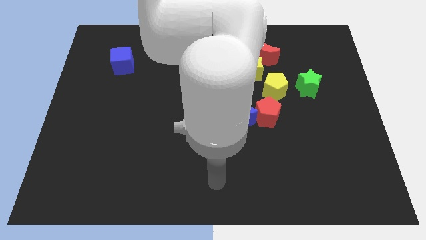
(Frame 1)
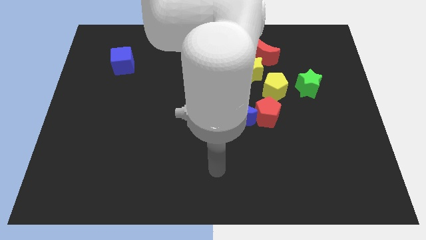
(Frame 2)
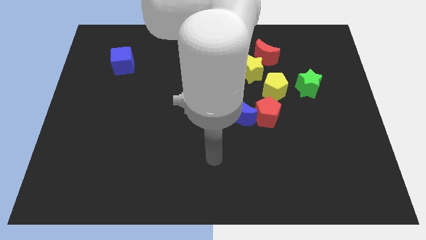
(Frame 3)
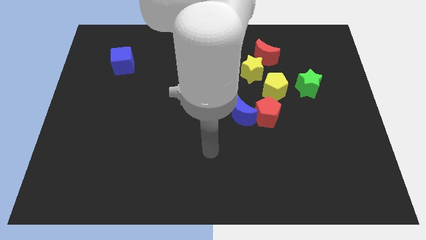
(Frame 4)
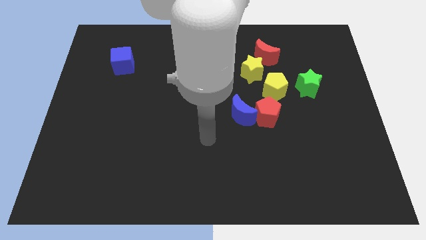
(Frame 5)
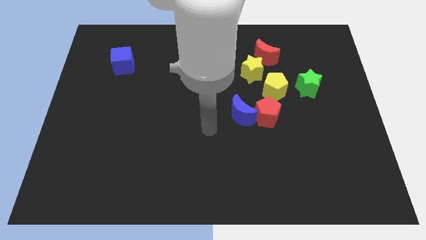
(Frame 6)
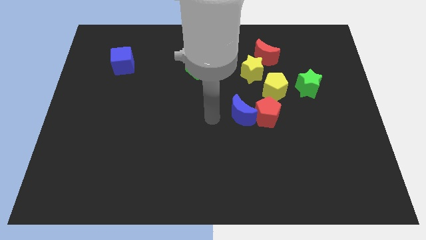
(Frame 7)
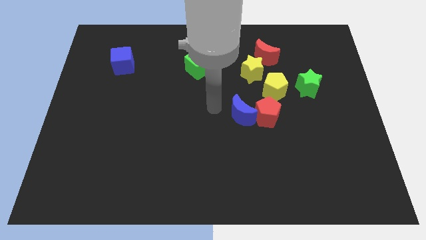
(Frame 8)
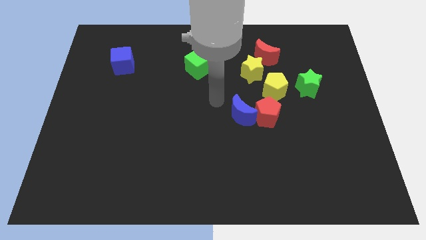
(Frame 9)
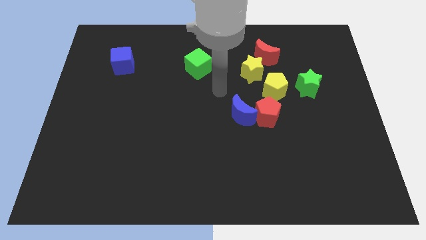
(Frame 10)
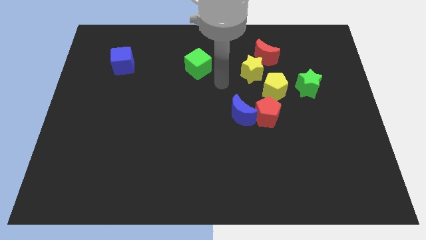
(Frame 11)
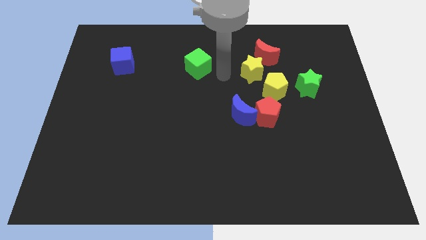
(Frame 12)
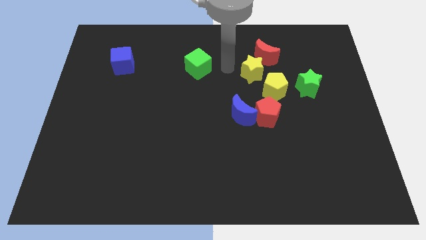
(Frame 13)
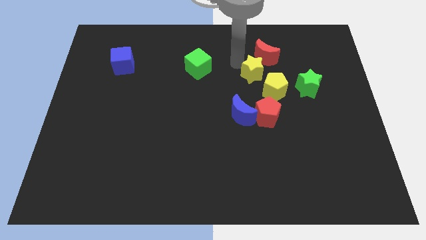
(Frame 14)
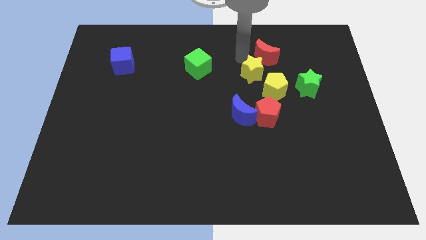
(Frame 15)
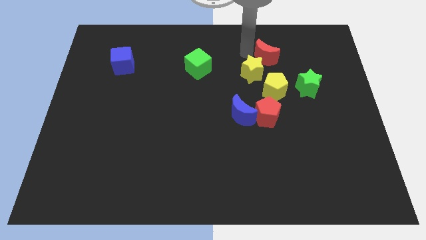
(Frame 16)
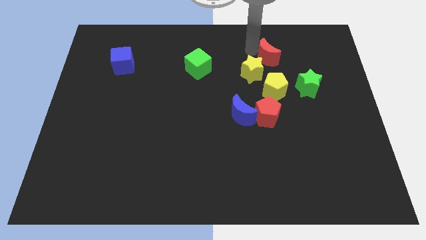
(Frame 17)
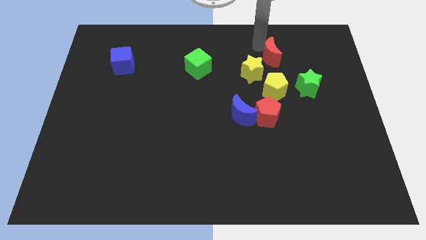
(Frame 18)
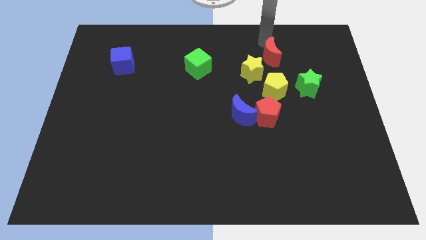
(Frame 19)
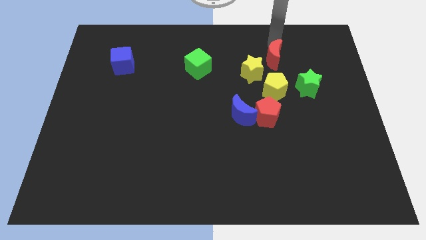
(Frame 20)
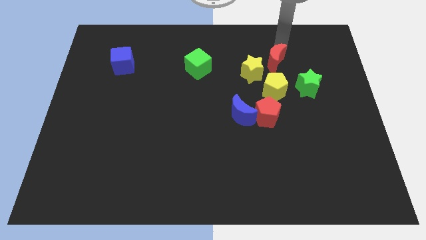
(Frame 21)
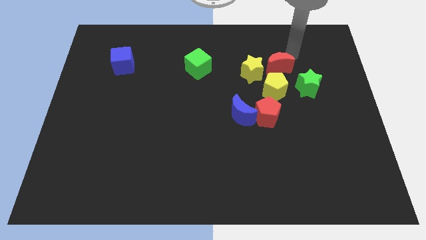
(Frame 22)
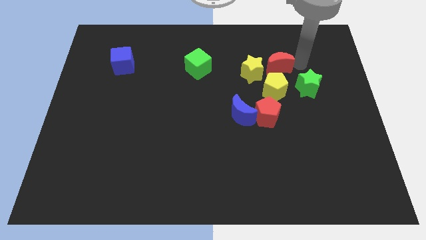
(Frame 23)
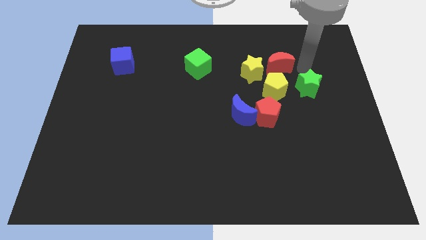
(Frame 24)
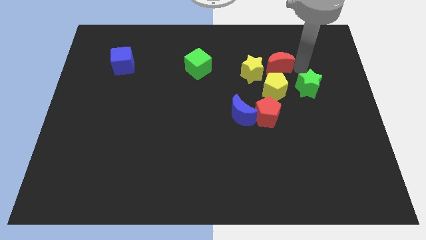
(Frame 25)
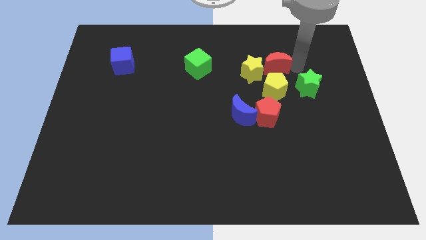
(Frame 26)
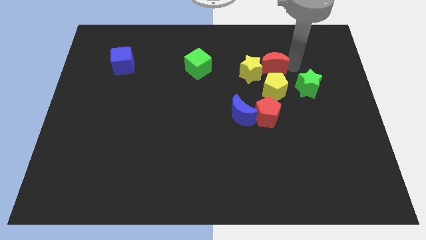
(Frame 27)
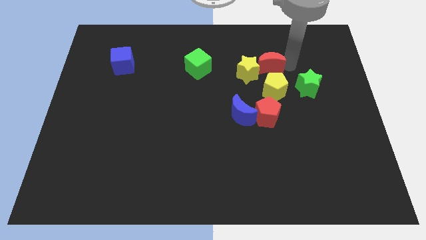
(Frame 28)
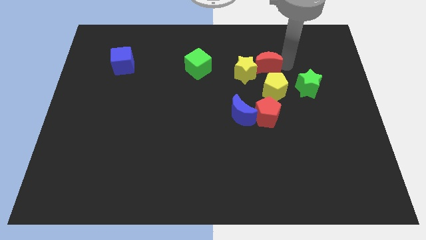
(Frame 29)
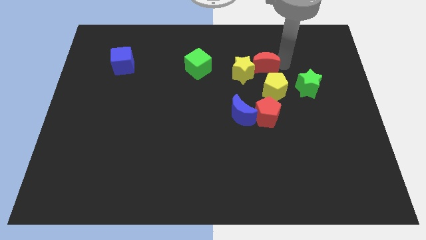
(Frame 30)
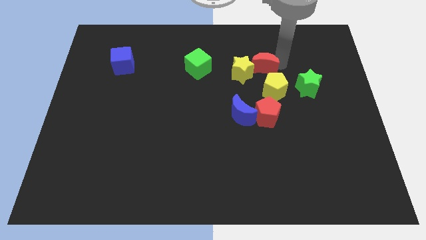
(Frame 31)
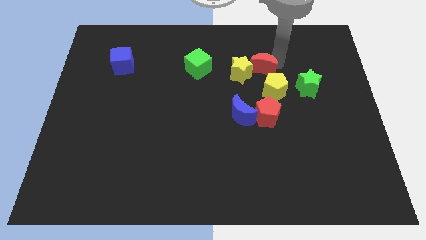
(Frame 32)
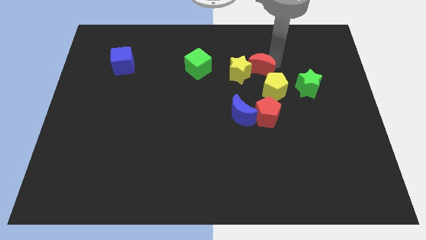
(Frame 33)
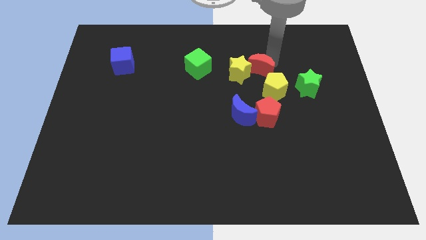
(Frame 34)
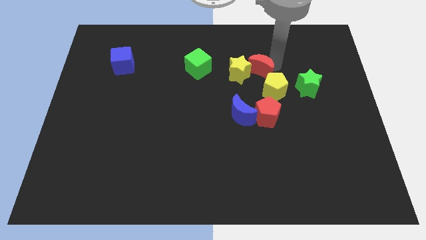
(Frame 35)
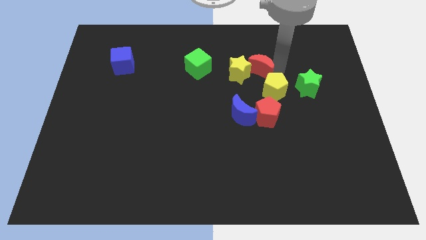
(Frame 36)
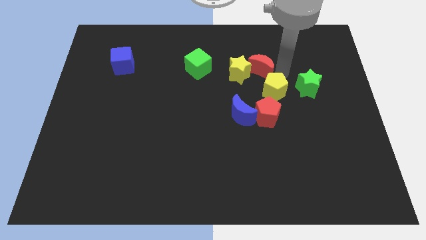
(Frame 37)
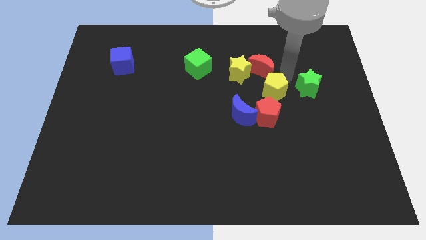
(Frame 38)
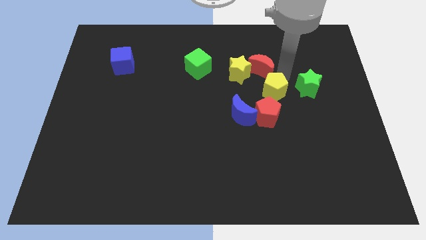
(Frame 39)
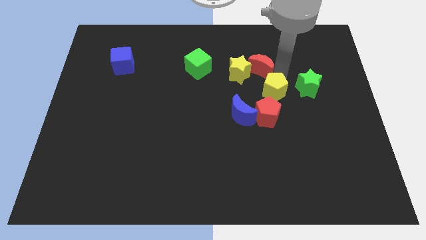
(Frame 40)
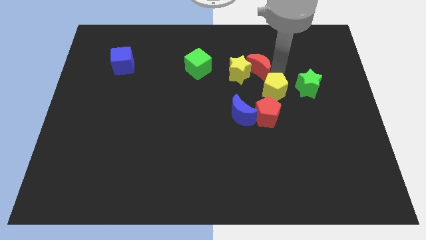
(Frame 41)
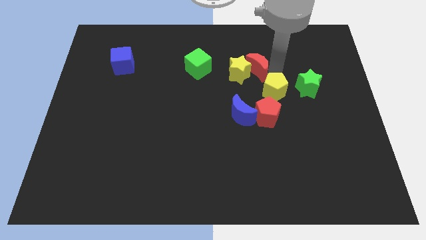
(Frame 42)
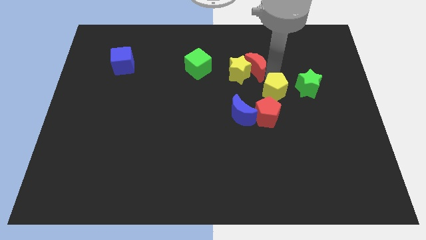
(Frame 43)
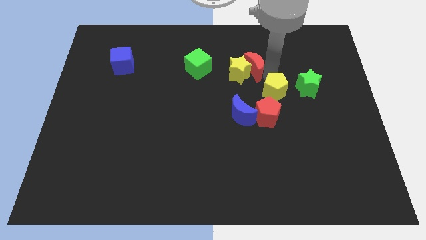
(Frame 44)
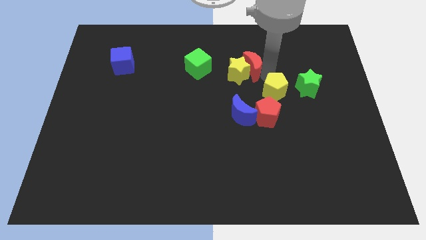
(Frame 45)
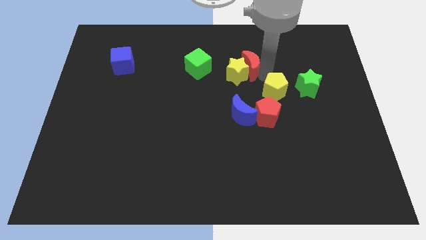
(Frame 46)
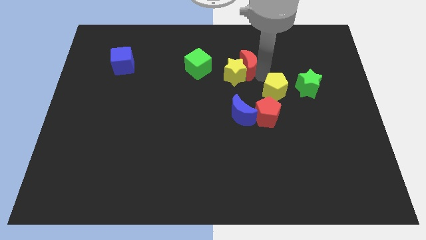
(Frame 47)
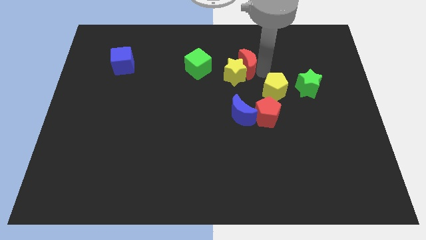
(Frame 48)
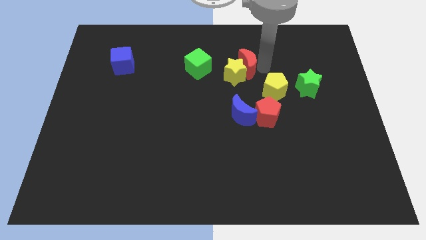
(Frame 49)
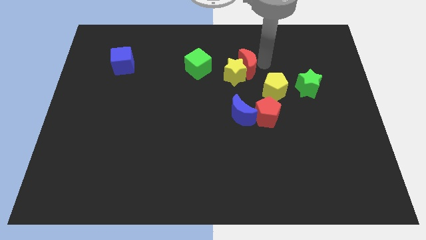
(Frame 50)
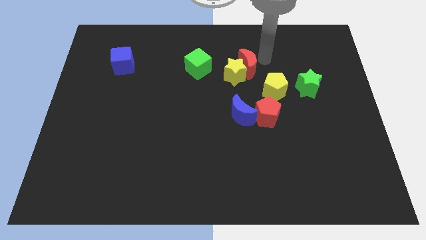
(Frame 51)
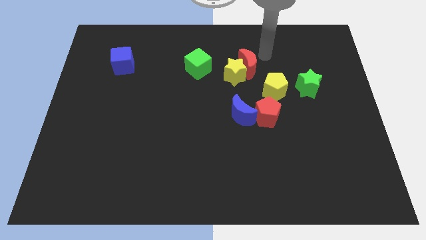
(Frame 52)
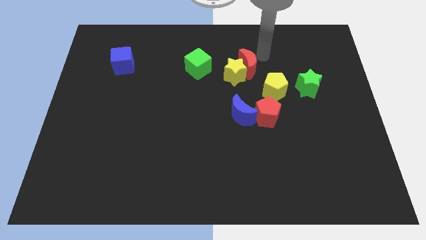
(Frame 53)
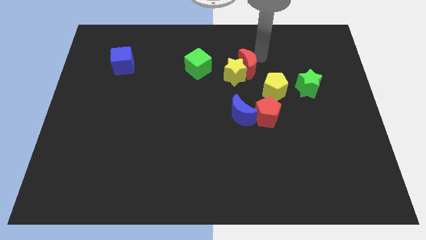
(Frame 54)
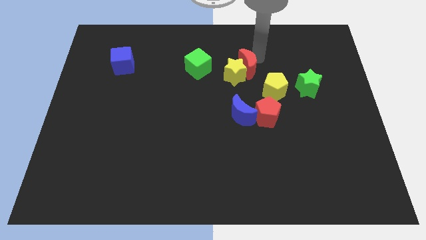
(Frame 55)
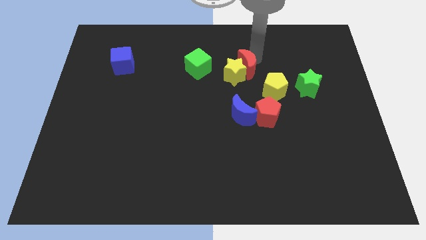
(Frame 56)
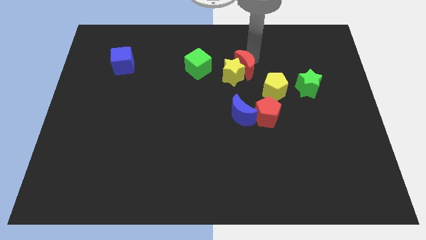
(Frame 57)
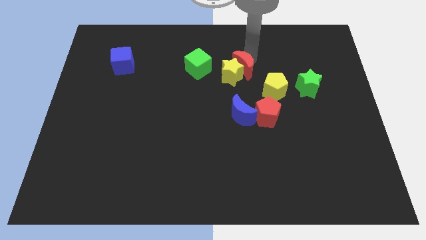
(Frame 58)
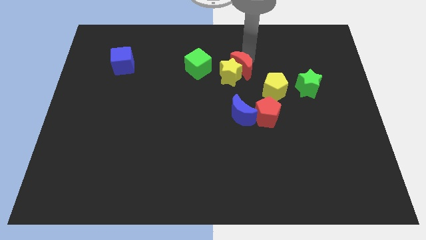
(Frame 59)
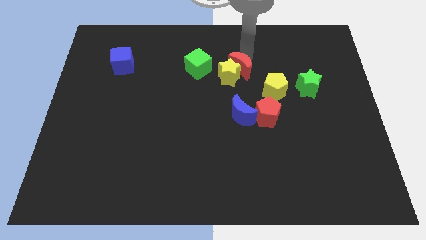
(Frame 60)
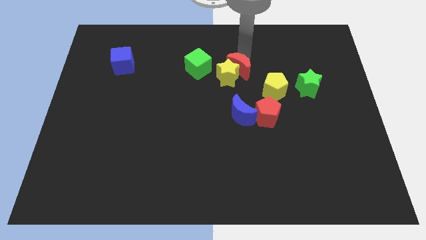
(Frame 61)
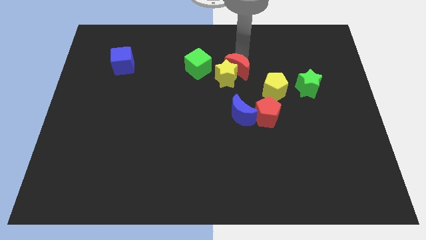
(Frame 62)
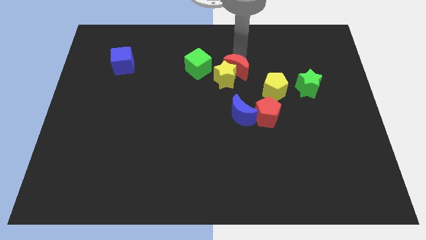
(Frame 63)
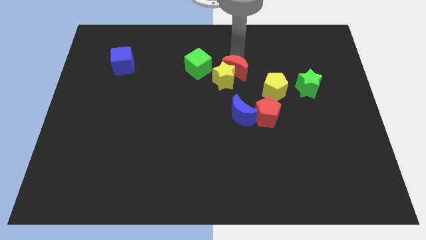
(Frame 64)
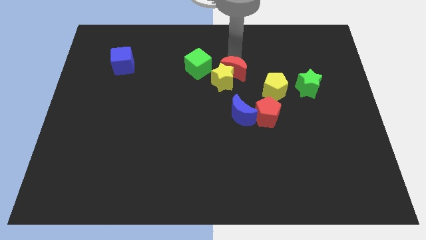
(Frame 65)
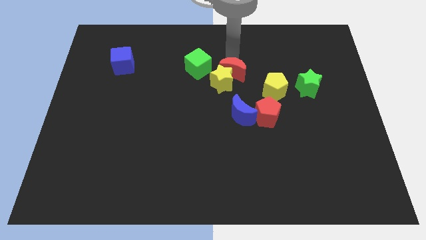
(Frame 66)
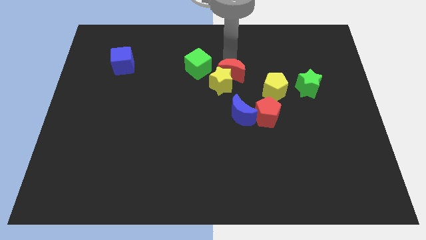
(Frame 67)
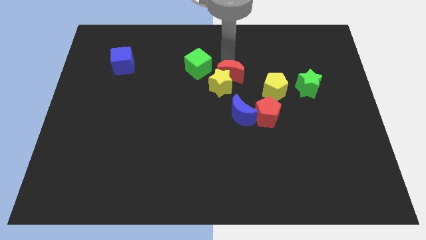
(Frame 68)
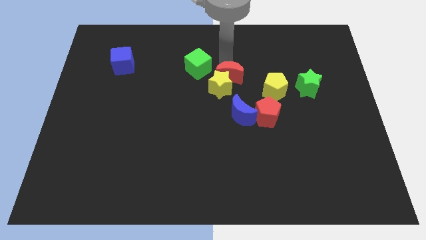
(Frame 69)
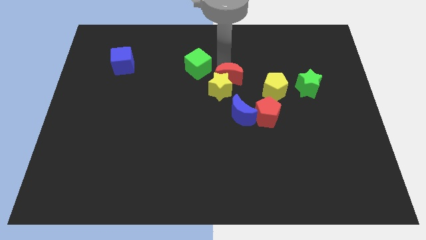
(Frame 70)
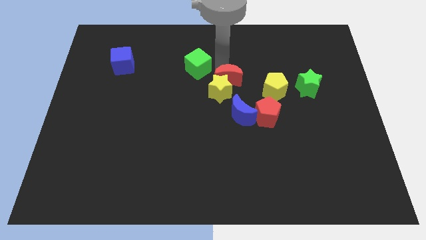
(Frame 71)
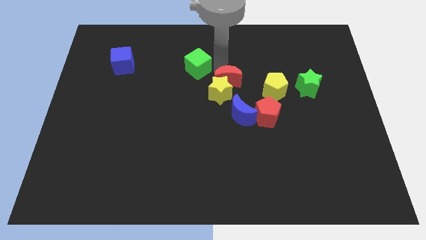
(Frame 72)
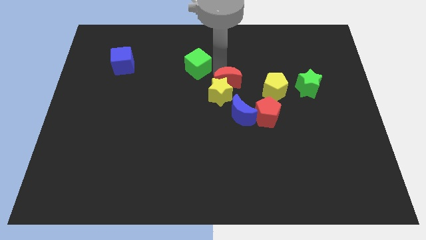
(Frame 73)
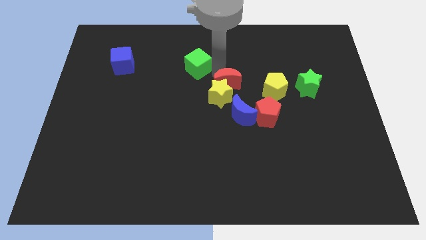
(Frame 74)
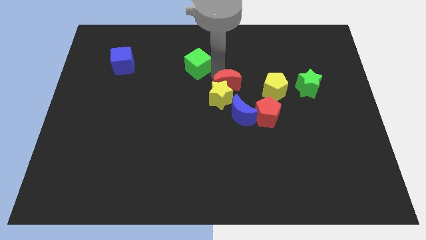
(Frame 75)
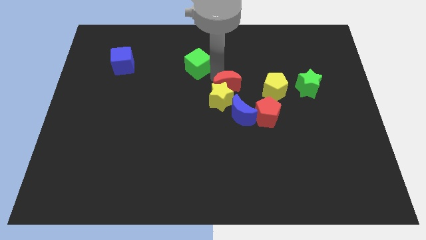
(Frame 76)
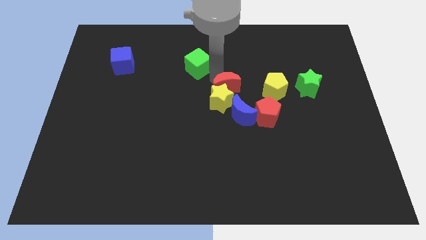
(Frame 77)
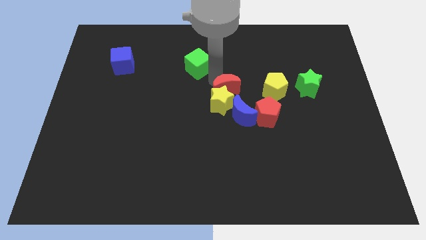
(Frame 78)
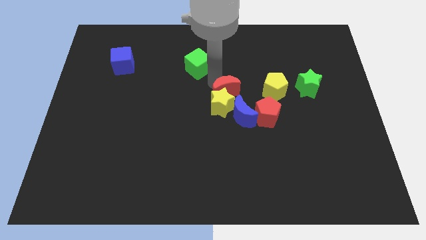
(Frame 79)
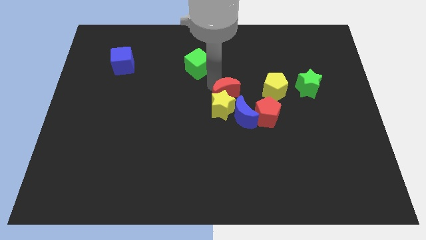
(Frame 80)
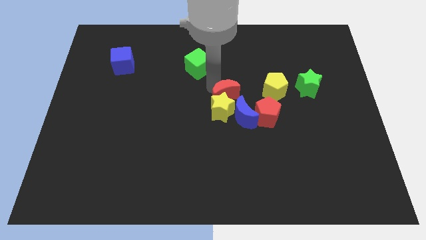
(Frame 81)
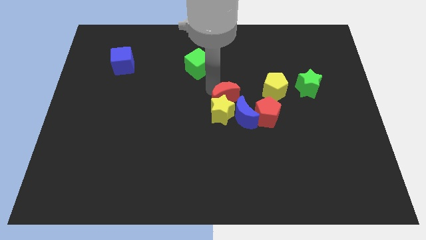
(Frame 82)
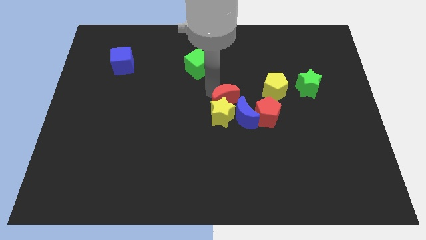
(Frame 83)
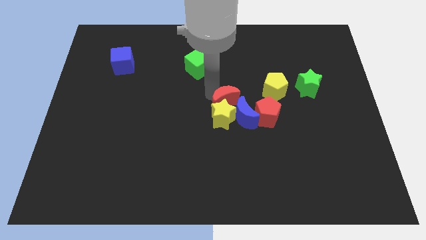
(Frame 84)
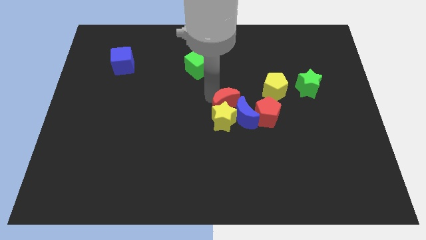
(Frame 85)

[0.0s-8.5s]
push the red moon close to the blue moon
